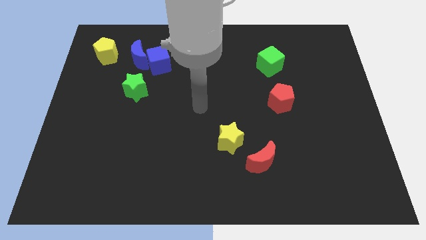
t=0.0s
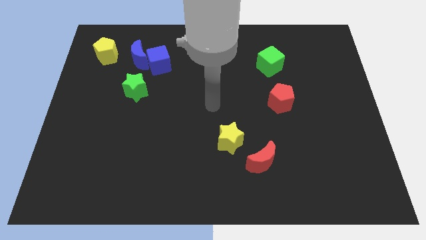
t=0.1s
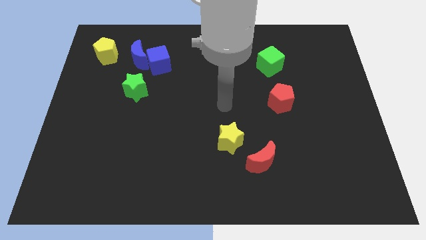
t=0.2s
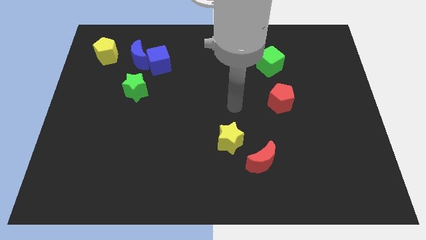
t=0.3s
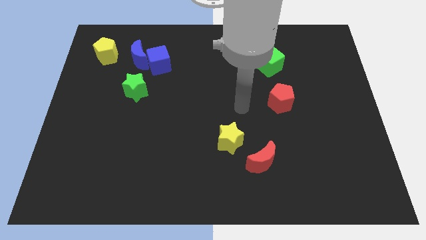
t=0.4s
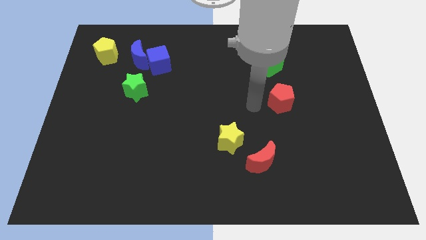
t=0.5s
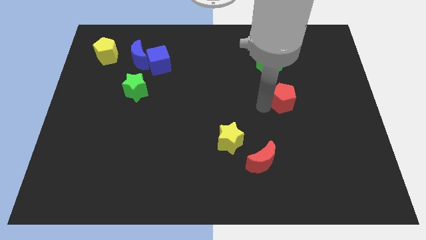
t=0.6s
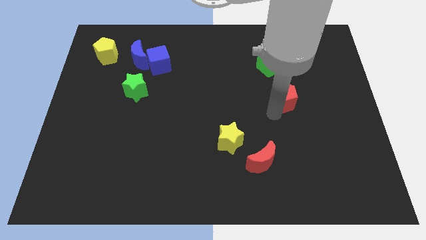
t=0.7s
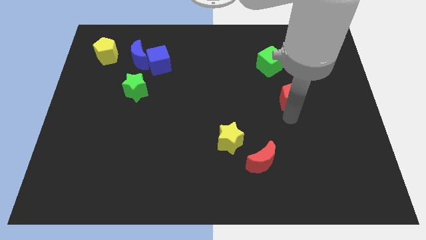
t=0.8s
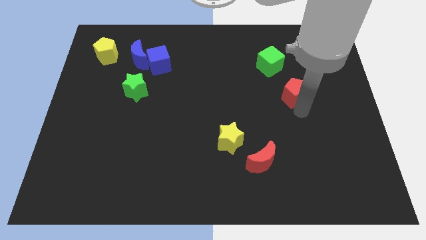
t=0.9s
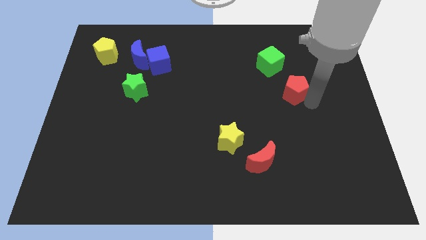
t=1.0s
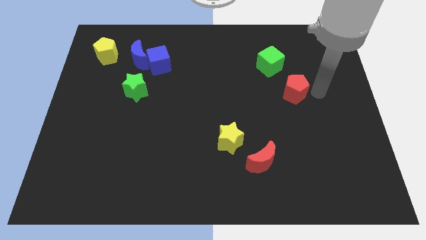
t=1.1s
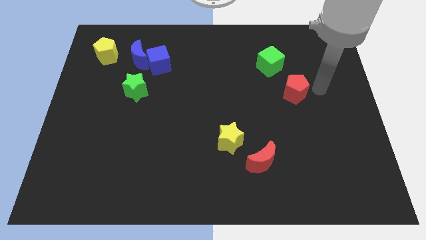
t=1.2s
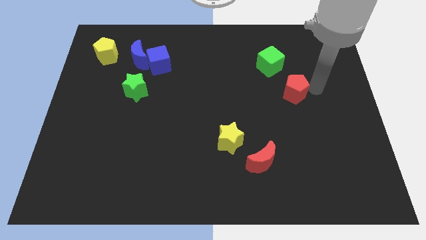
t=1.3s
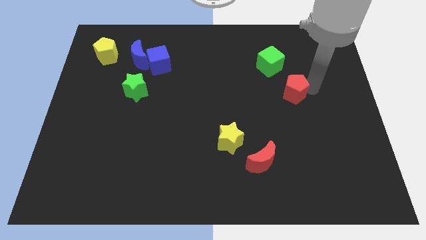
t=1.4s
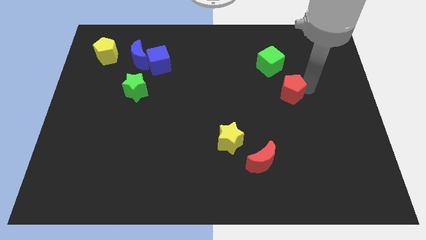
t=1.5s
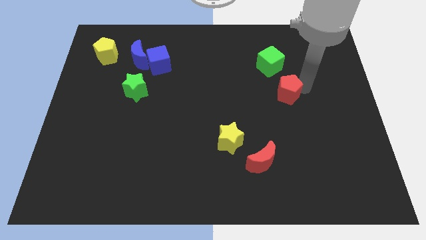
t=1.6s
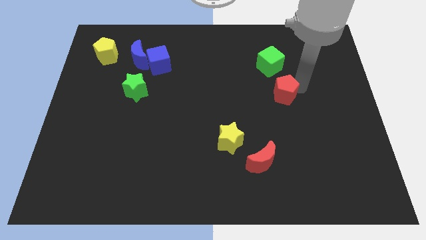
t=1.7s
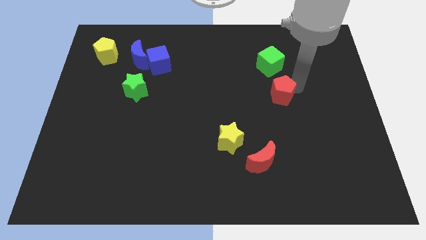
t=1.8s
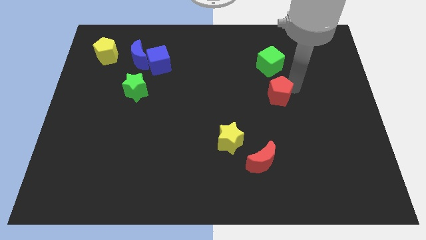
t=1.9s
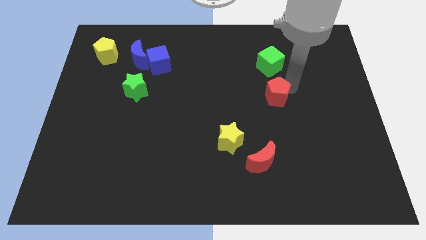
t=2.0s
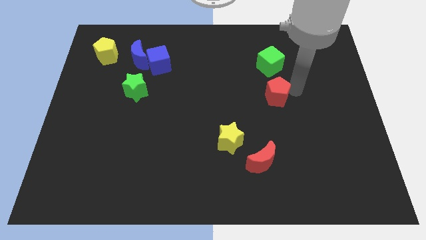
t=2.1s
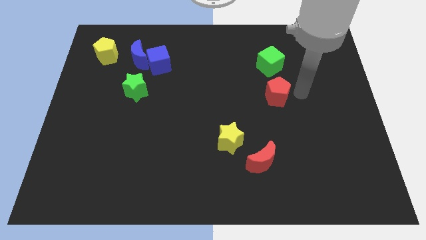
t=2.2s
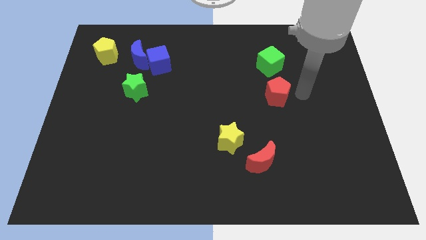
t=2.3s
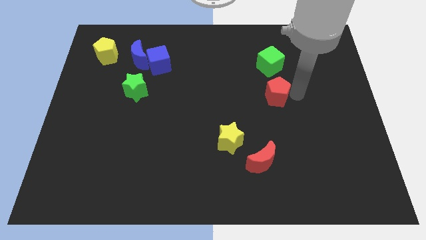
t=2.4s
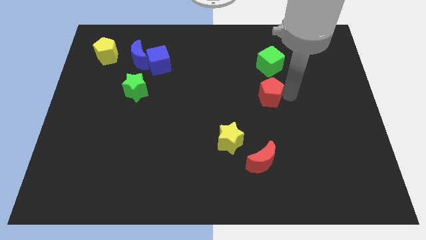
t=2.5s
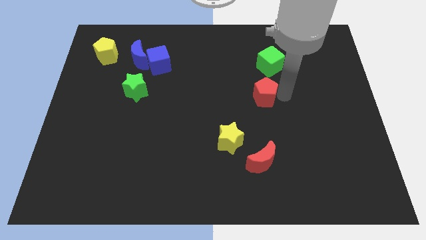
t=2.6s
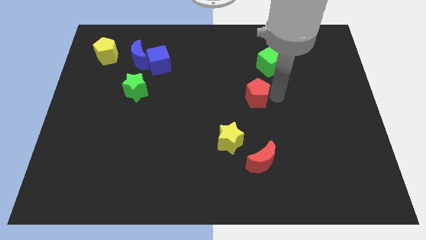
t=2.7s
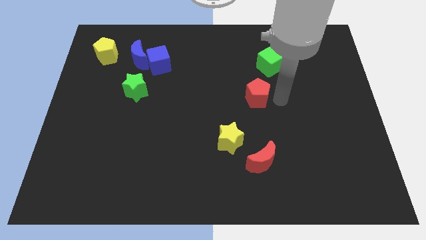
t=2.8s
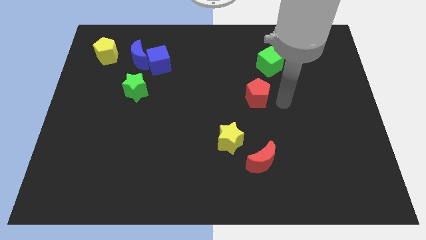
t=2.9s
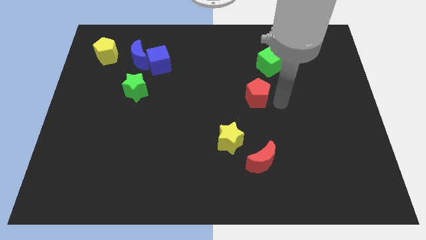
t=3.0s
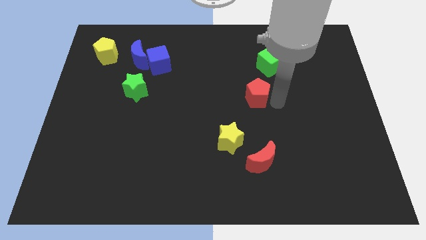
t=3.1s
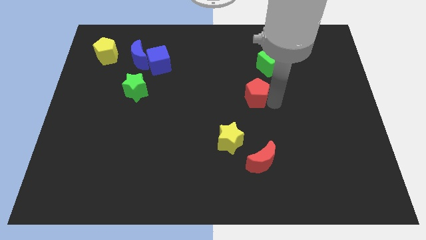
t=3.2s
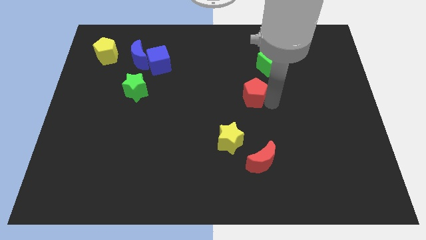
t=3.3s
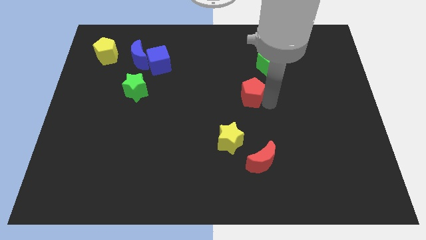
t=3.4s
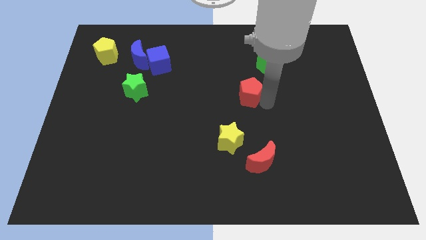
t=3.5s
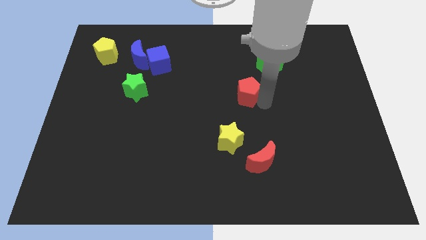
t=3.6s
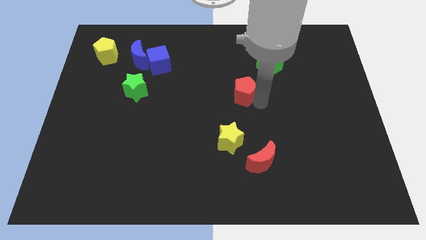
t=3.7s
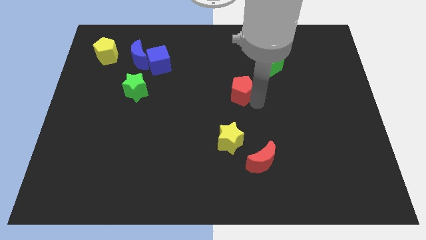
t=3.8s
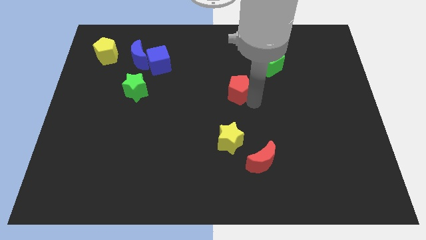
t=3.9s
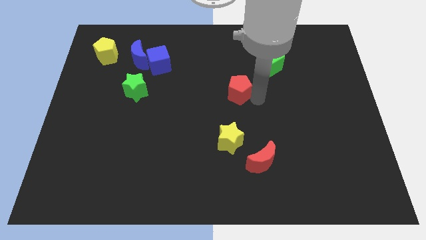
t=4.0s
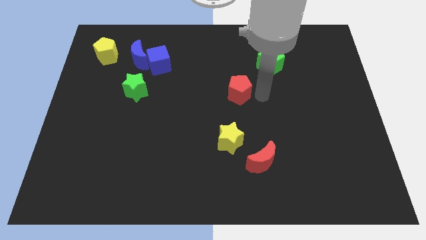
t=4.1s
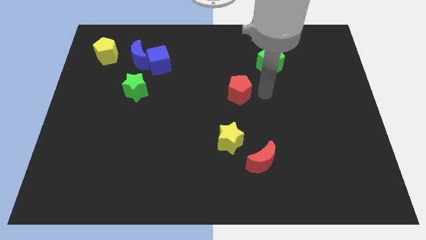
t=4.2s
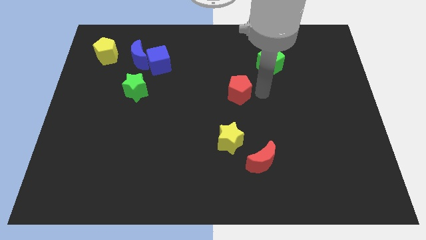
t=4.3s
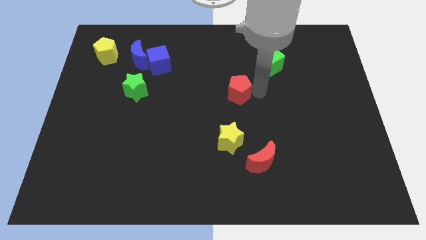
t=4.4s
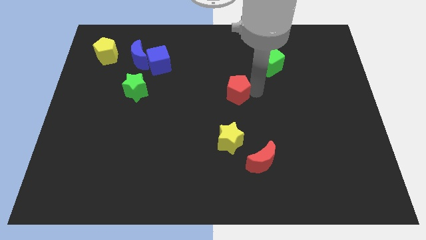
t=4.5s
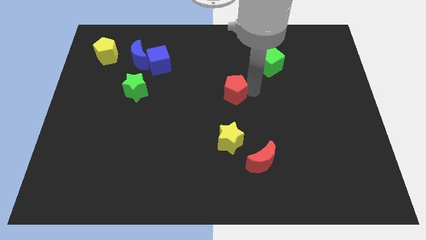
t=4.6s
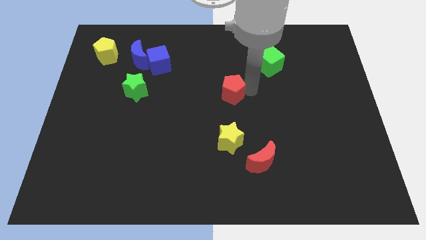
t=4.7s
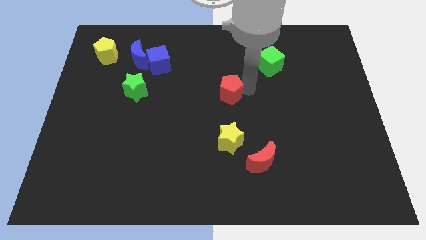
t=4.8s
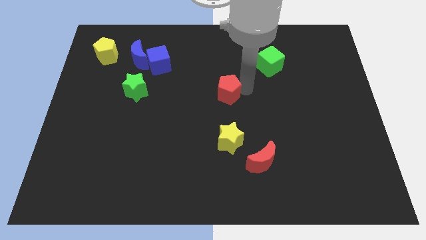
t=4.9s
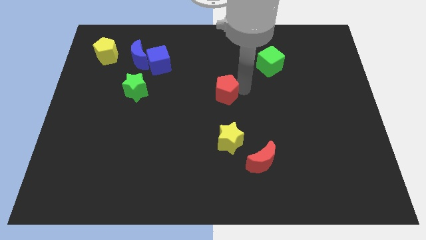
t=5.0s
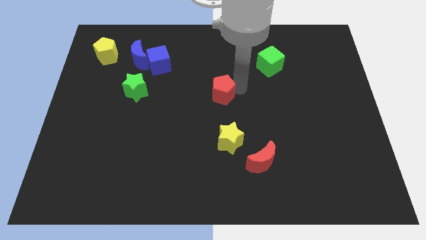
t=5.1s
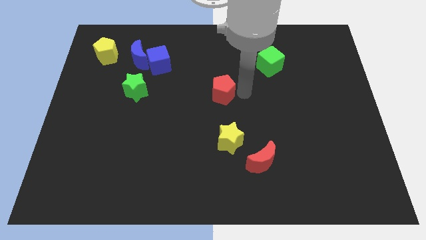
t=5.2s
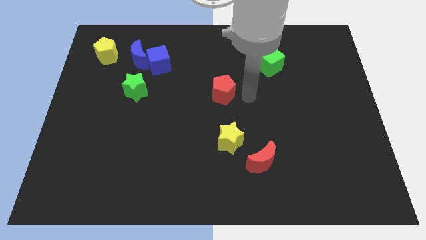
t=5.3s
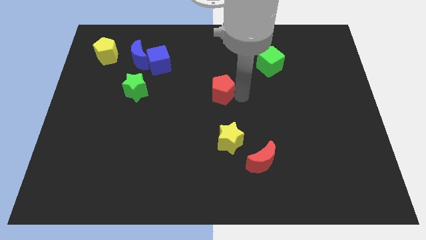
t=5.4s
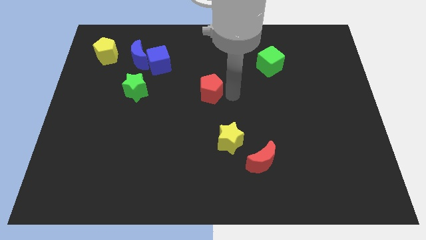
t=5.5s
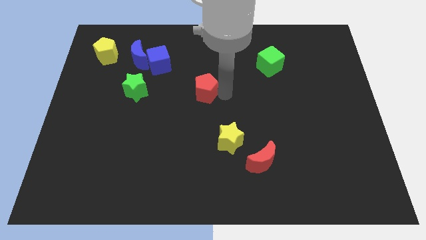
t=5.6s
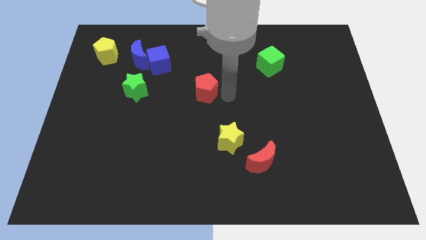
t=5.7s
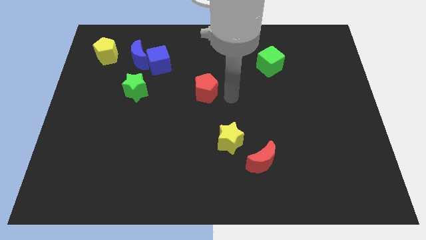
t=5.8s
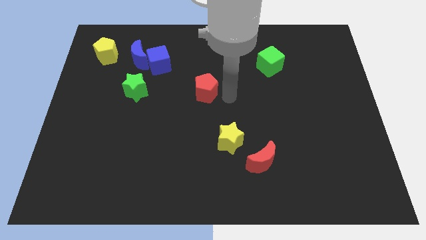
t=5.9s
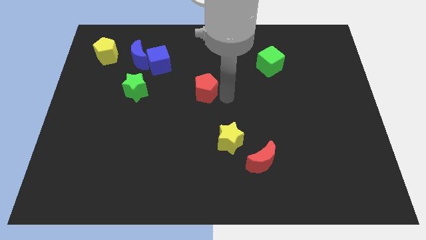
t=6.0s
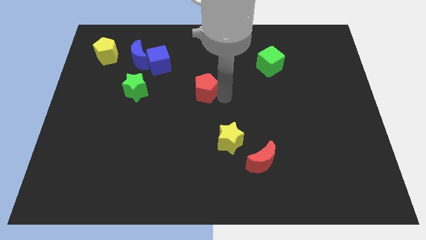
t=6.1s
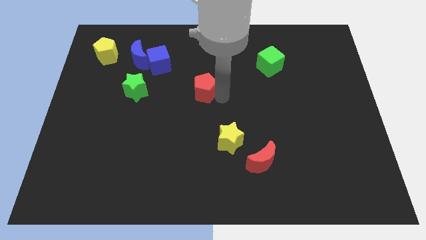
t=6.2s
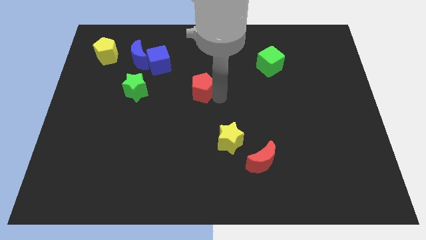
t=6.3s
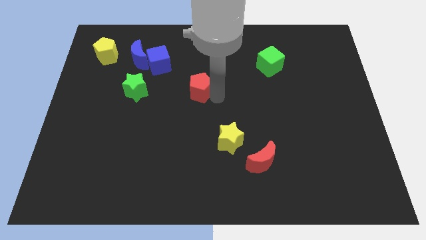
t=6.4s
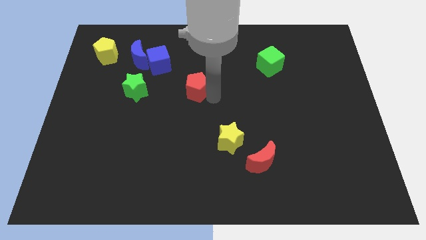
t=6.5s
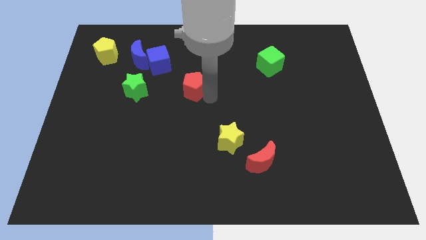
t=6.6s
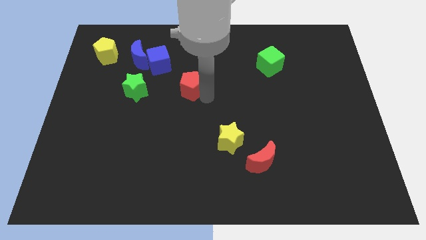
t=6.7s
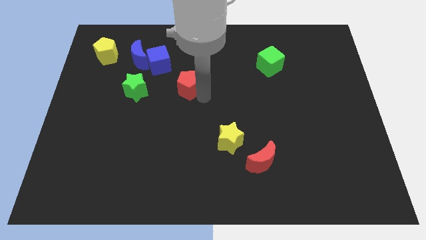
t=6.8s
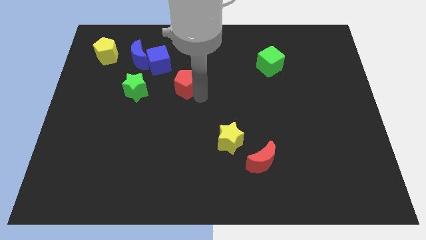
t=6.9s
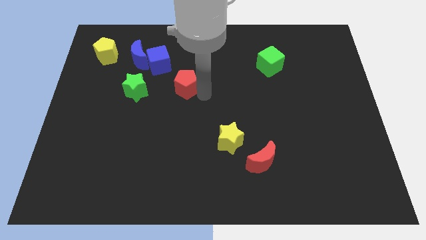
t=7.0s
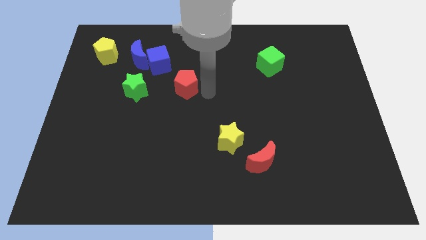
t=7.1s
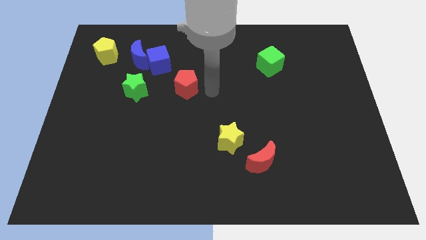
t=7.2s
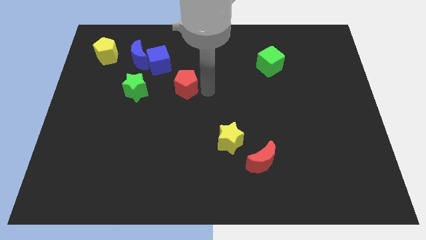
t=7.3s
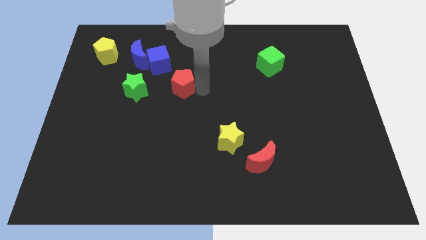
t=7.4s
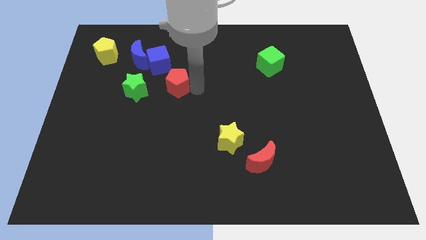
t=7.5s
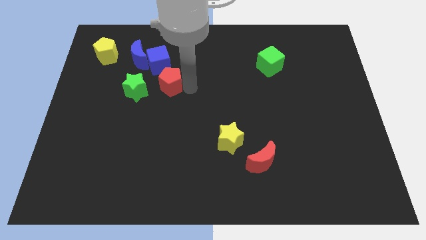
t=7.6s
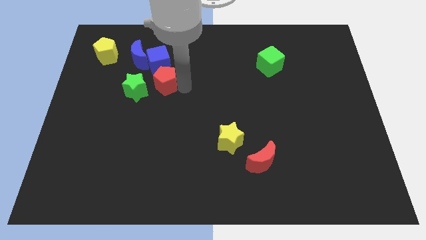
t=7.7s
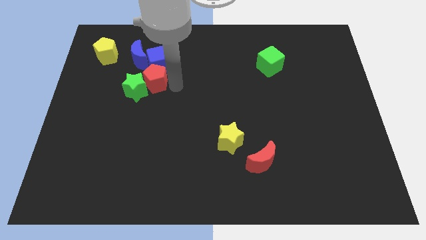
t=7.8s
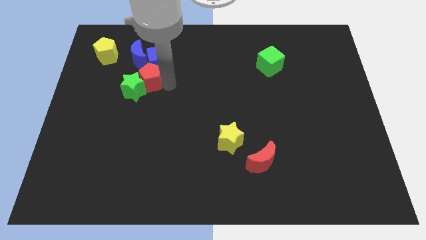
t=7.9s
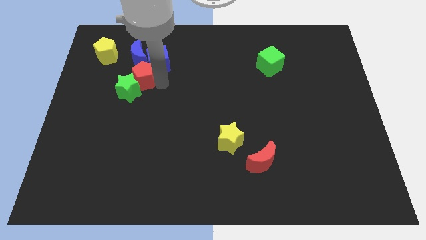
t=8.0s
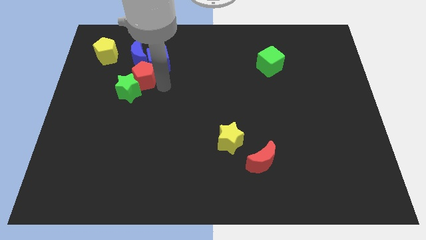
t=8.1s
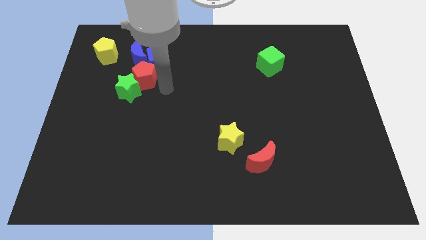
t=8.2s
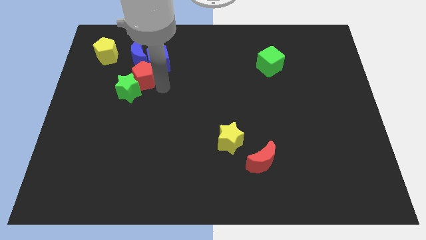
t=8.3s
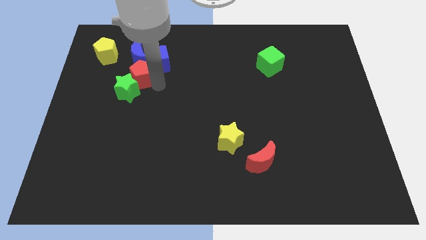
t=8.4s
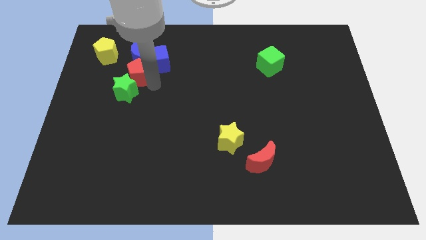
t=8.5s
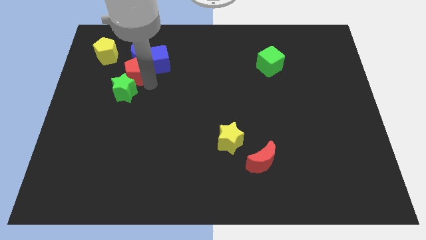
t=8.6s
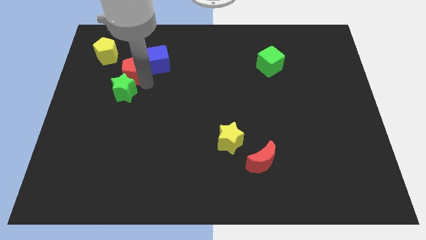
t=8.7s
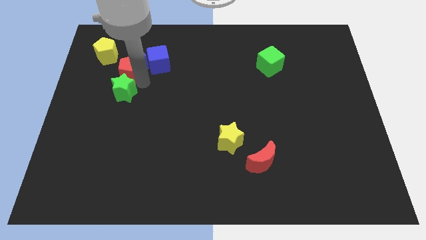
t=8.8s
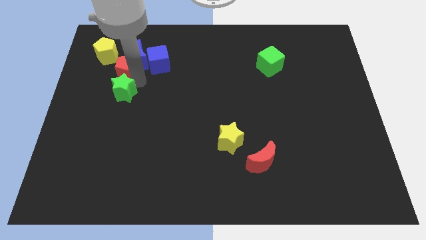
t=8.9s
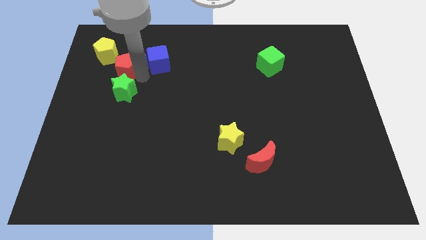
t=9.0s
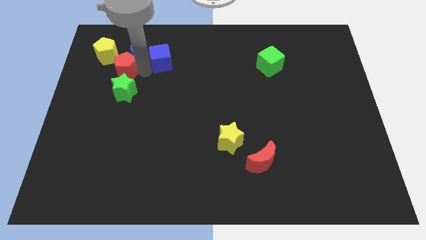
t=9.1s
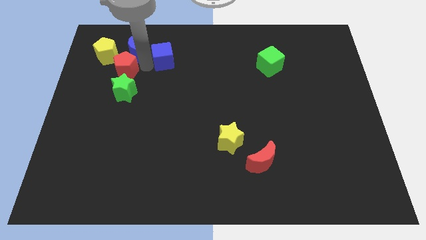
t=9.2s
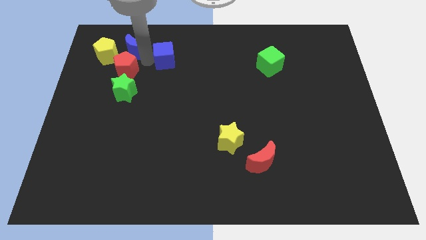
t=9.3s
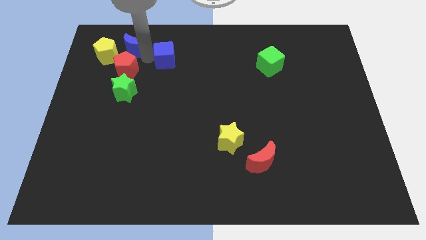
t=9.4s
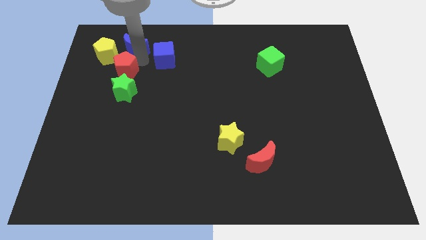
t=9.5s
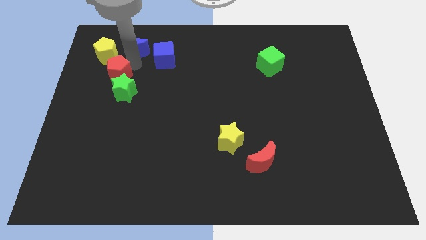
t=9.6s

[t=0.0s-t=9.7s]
slide the red pentagon to the bottom side of the yellow pentagon
